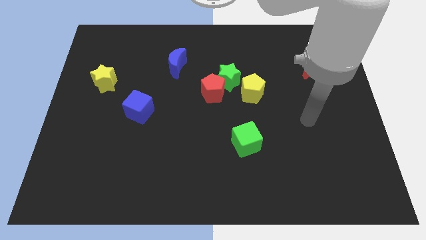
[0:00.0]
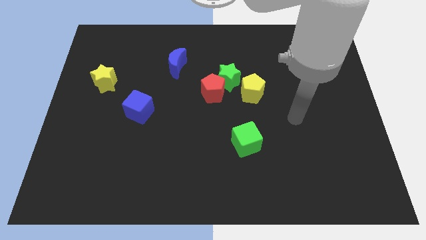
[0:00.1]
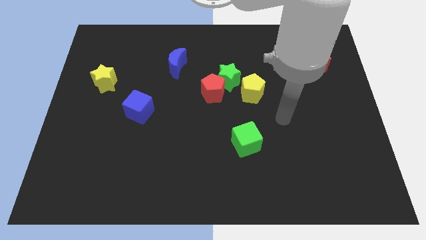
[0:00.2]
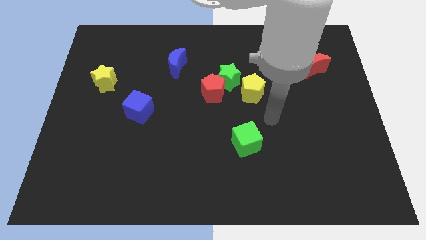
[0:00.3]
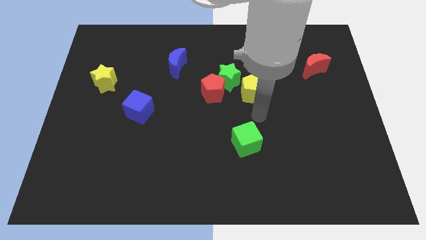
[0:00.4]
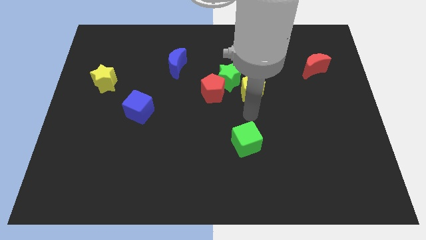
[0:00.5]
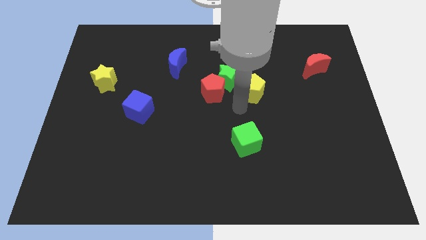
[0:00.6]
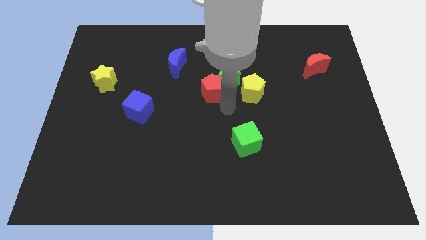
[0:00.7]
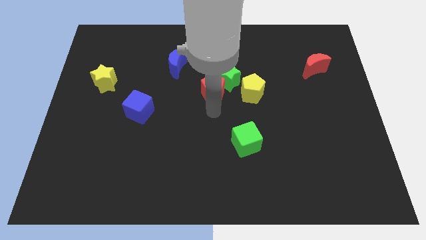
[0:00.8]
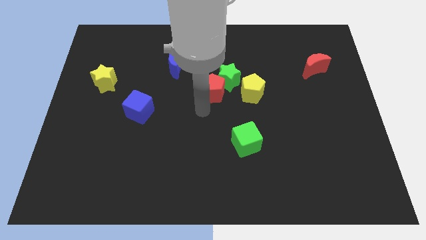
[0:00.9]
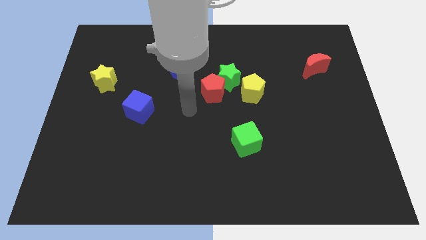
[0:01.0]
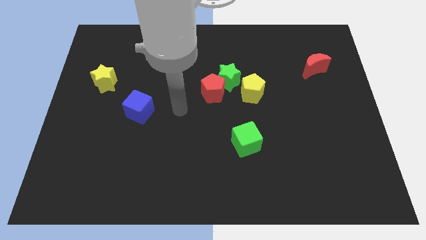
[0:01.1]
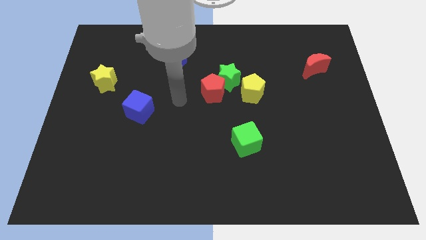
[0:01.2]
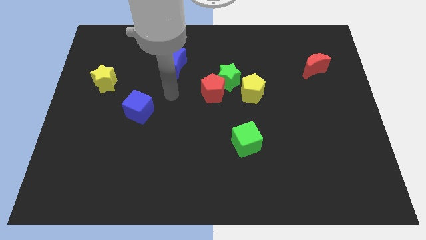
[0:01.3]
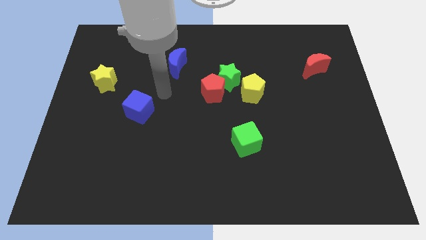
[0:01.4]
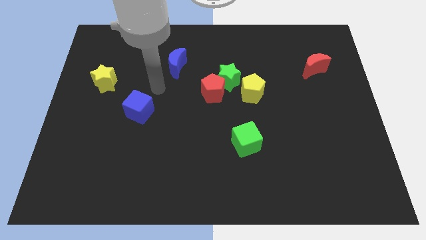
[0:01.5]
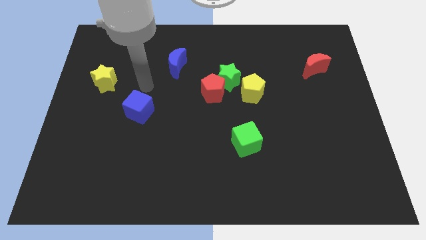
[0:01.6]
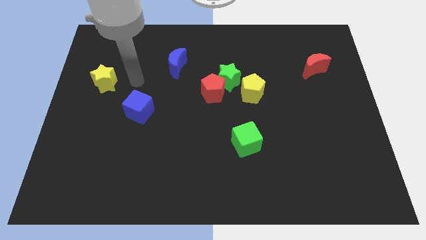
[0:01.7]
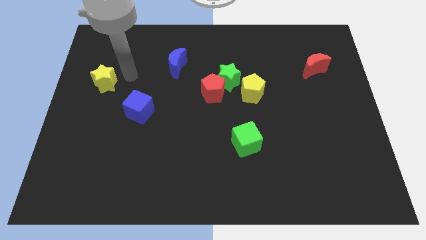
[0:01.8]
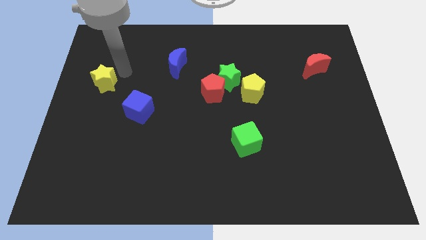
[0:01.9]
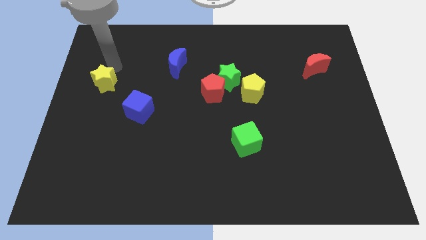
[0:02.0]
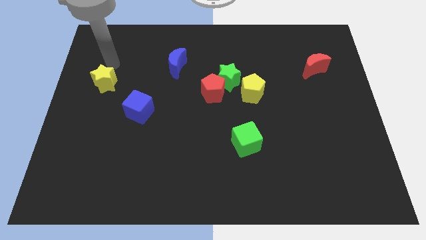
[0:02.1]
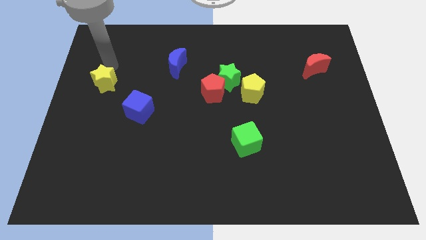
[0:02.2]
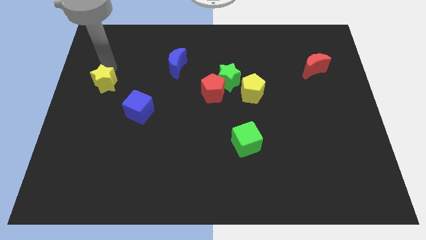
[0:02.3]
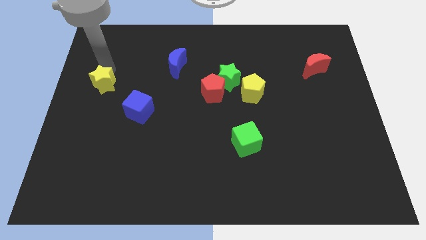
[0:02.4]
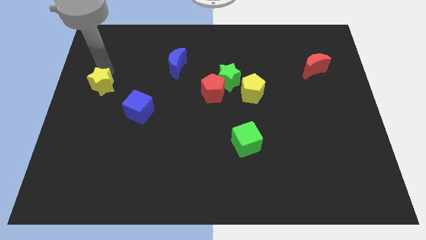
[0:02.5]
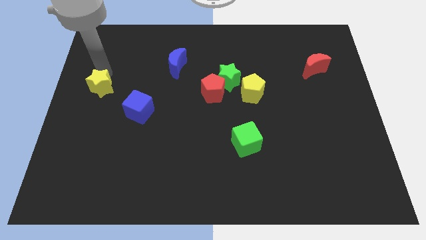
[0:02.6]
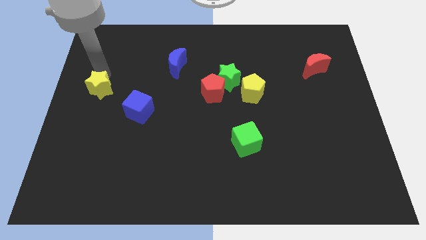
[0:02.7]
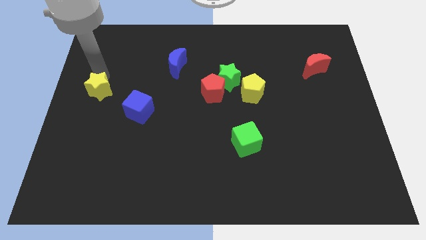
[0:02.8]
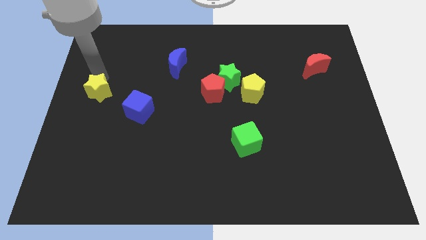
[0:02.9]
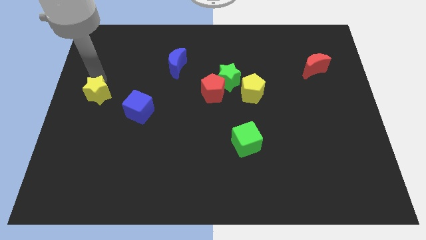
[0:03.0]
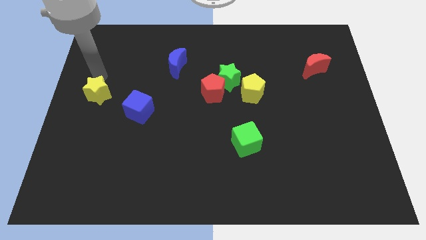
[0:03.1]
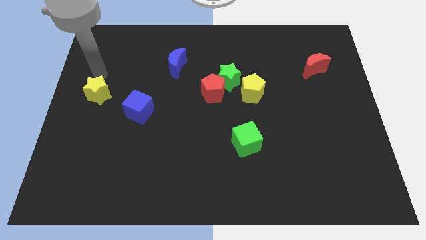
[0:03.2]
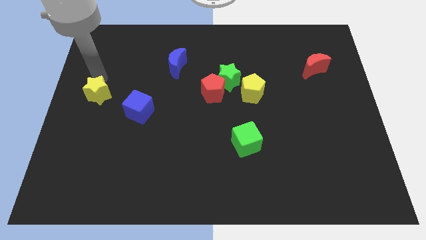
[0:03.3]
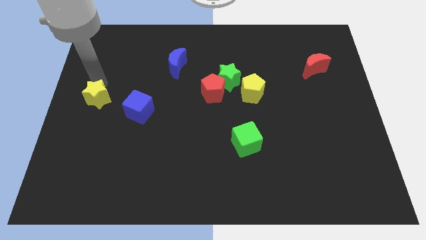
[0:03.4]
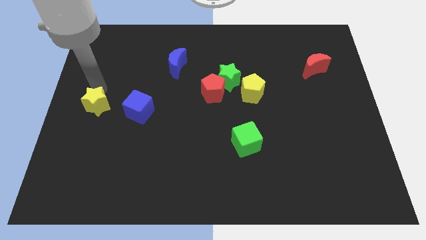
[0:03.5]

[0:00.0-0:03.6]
slide the yellow star somewhat downwards

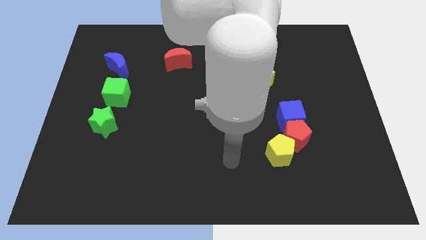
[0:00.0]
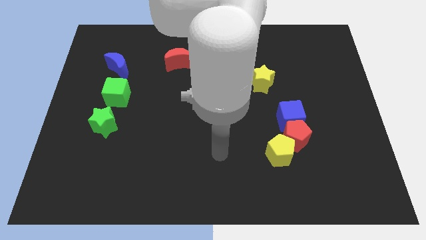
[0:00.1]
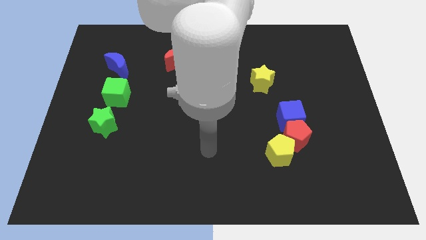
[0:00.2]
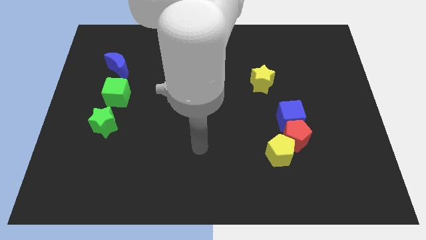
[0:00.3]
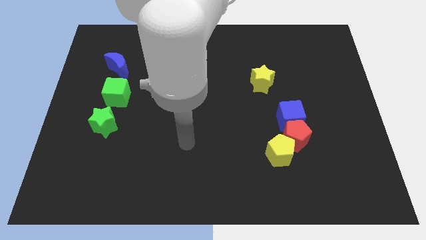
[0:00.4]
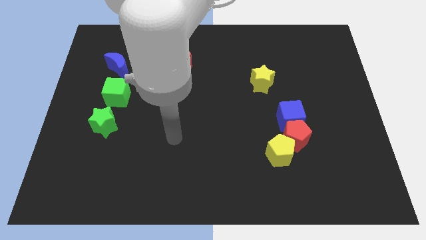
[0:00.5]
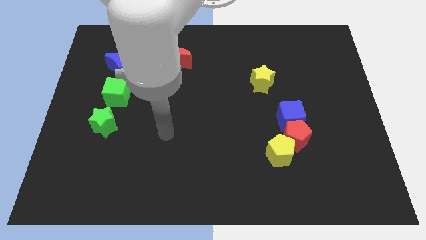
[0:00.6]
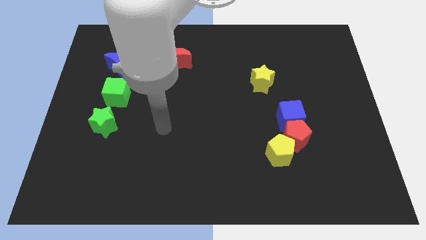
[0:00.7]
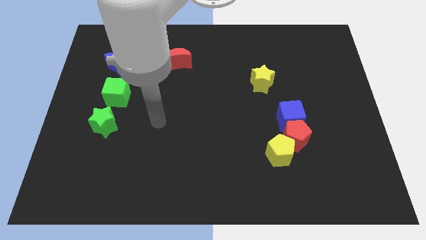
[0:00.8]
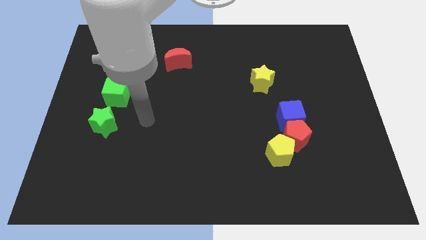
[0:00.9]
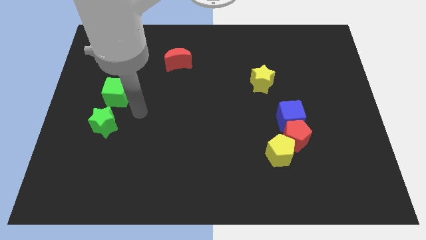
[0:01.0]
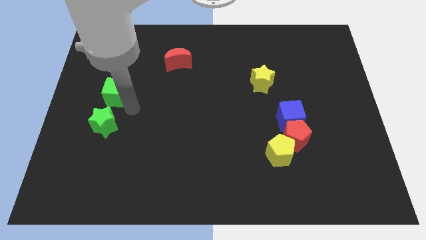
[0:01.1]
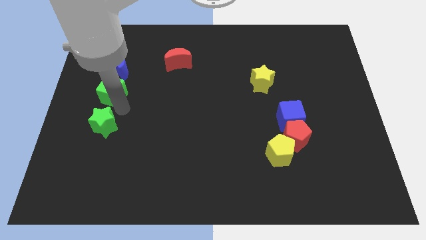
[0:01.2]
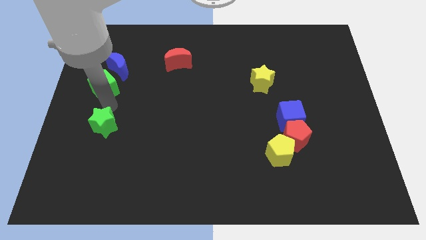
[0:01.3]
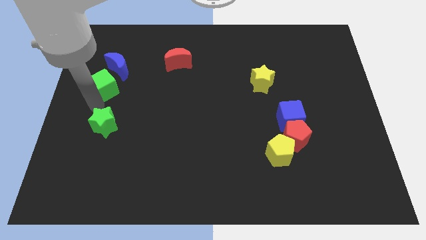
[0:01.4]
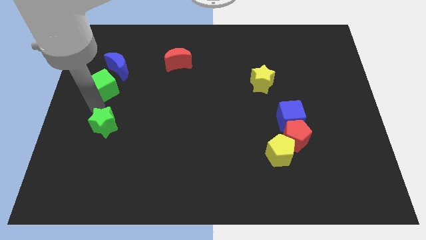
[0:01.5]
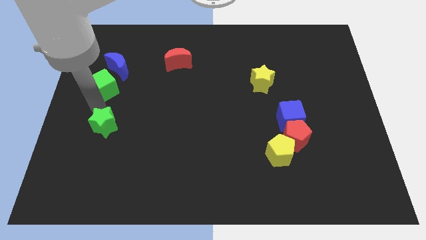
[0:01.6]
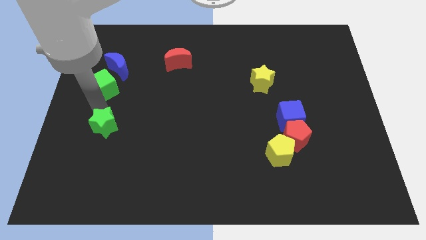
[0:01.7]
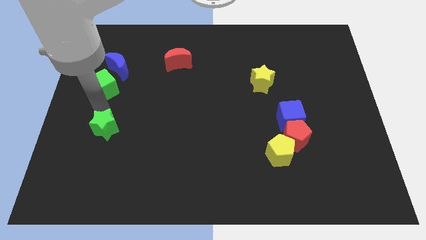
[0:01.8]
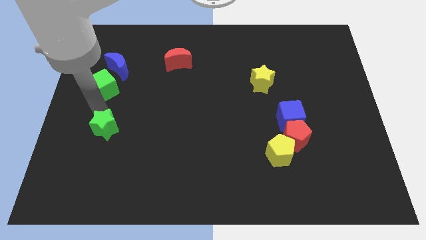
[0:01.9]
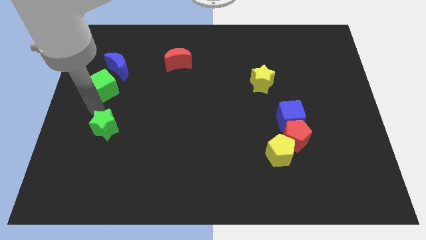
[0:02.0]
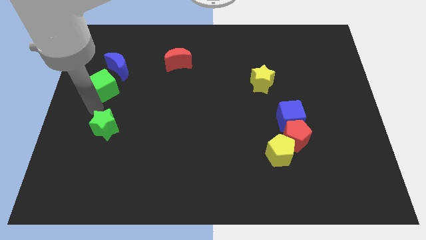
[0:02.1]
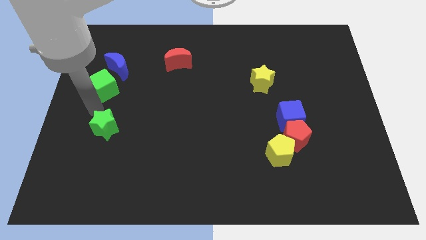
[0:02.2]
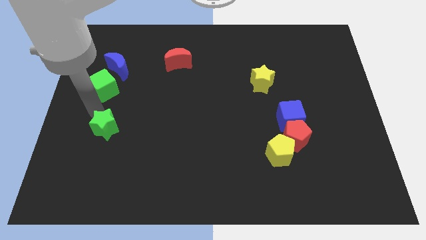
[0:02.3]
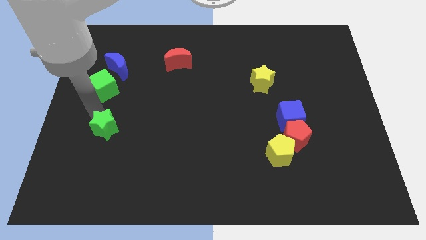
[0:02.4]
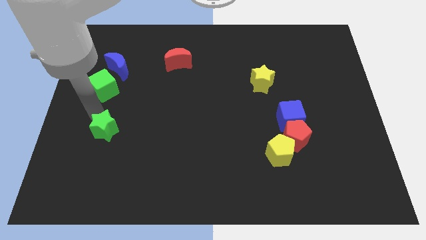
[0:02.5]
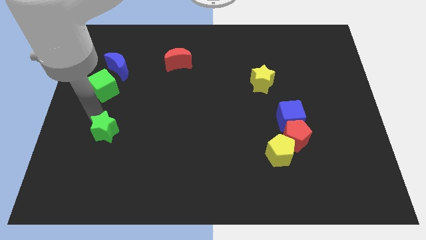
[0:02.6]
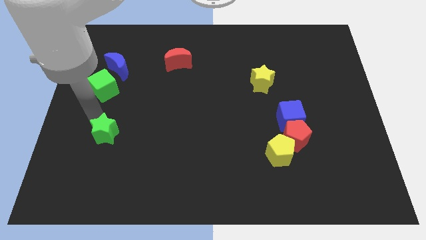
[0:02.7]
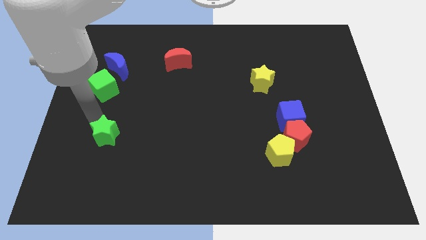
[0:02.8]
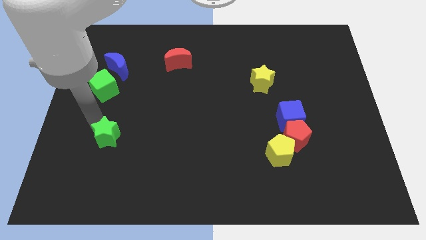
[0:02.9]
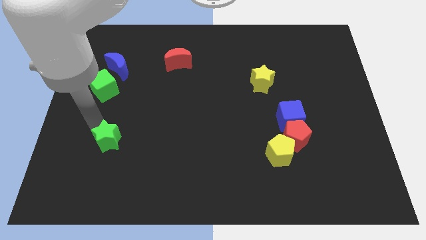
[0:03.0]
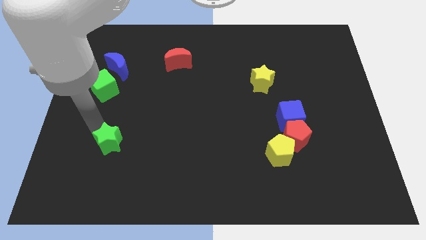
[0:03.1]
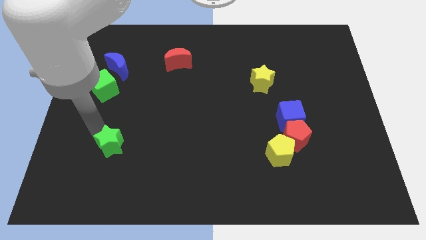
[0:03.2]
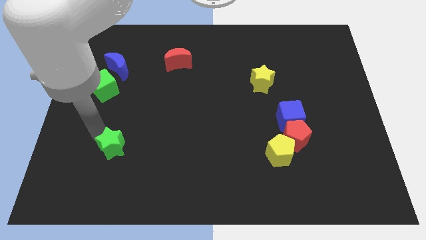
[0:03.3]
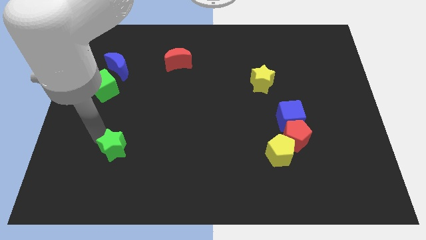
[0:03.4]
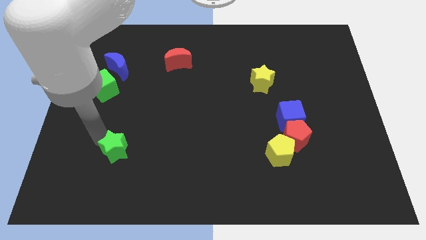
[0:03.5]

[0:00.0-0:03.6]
slightly push the green star down and right diagonally

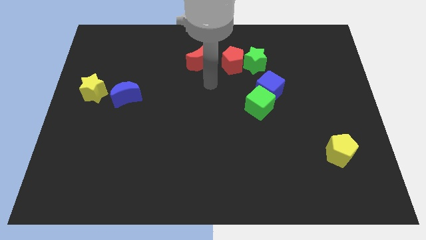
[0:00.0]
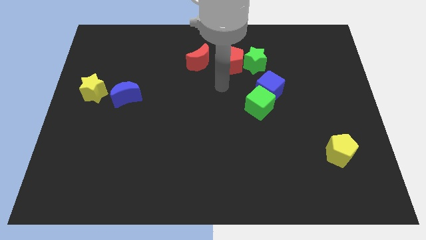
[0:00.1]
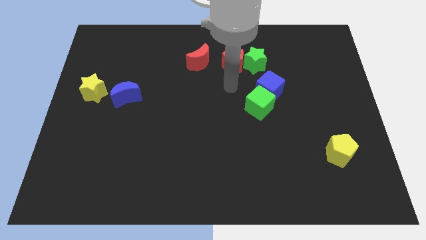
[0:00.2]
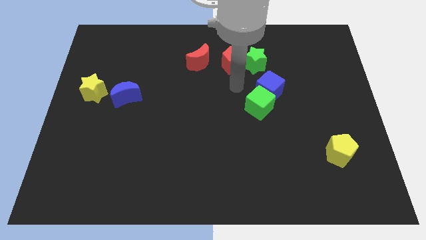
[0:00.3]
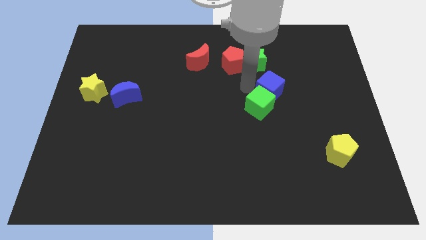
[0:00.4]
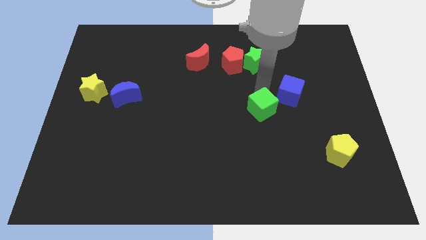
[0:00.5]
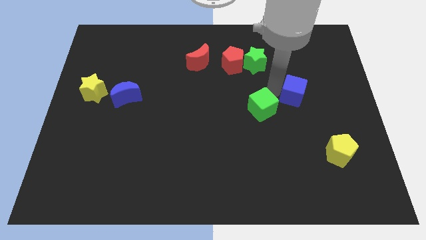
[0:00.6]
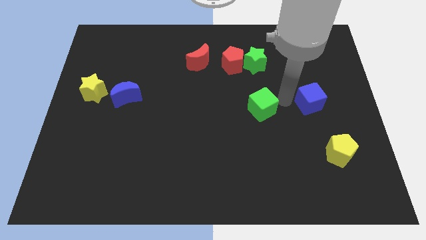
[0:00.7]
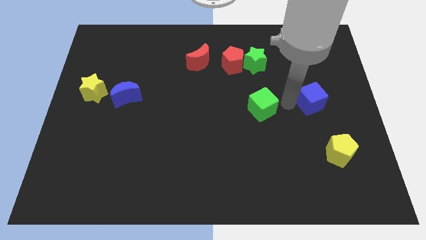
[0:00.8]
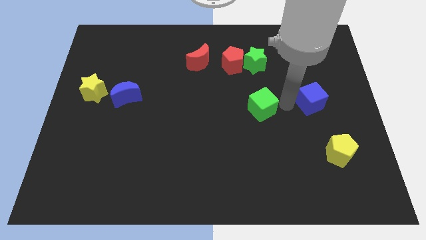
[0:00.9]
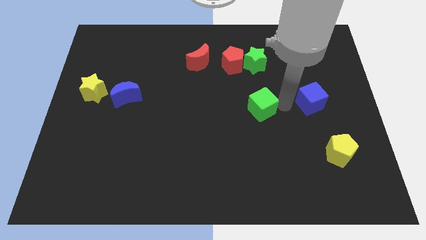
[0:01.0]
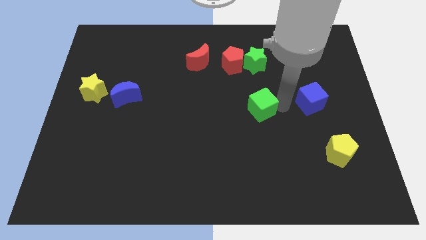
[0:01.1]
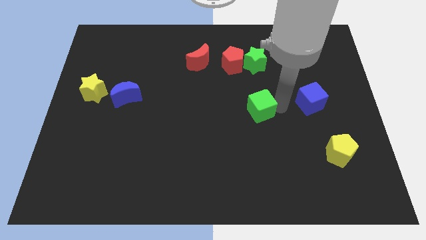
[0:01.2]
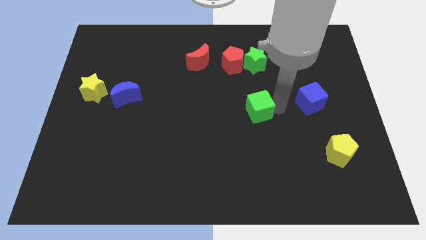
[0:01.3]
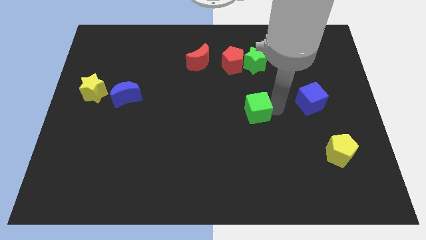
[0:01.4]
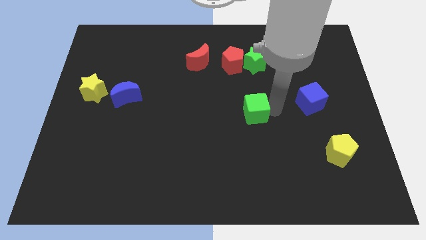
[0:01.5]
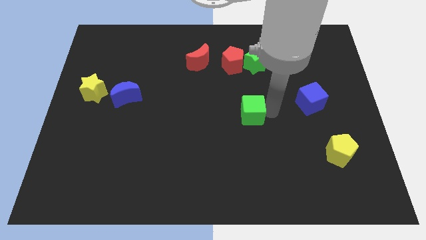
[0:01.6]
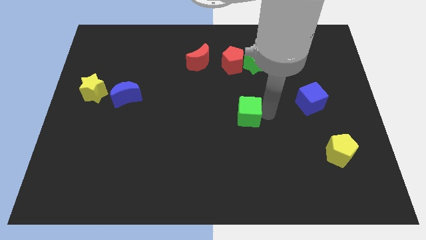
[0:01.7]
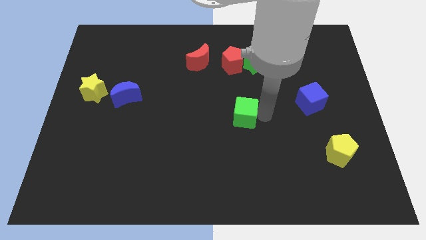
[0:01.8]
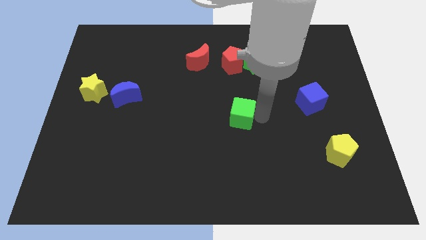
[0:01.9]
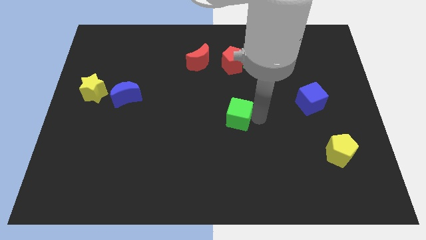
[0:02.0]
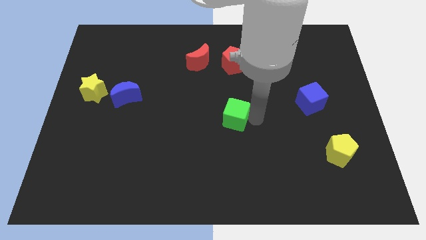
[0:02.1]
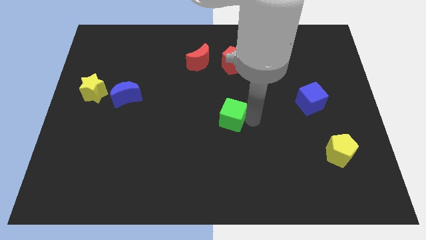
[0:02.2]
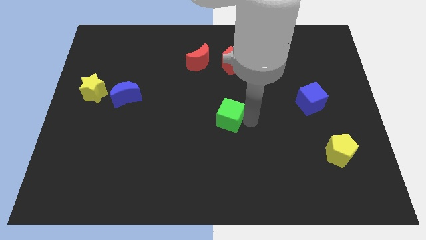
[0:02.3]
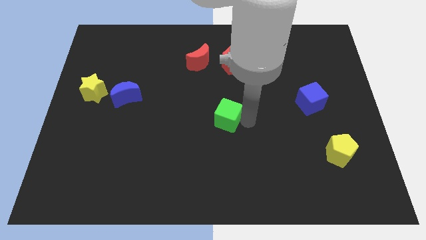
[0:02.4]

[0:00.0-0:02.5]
move the green cube somewhat to the left
